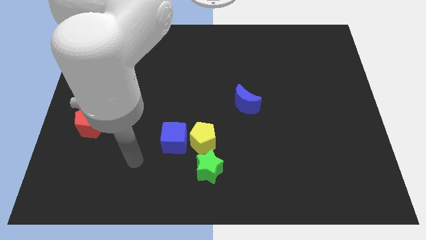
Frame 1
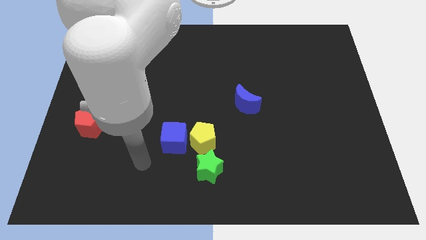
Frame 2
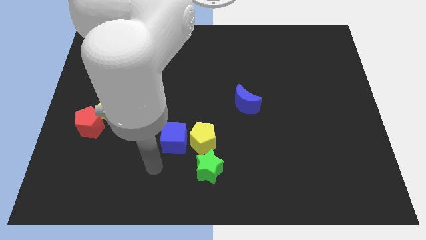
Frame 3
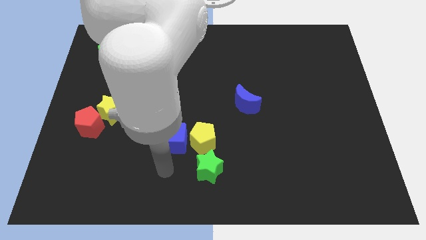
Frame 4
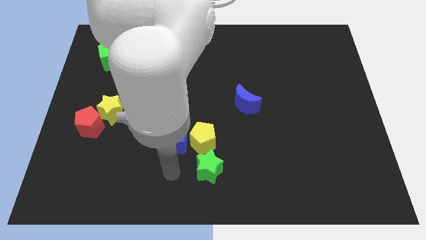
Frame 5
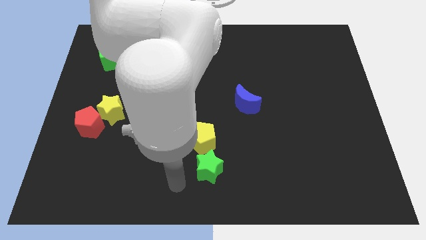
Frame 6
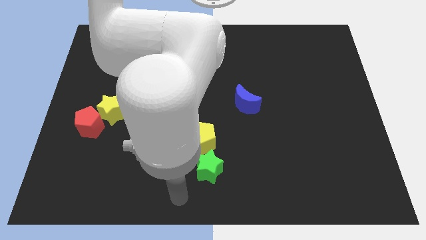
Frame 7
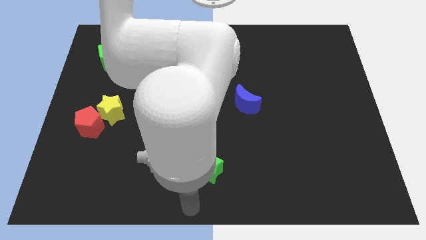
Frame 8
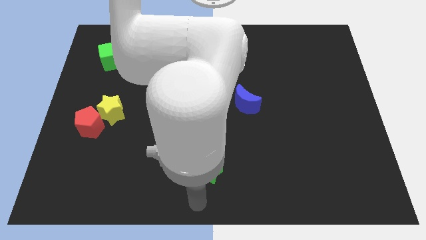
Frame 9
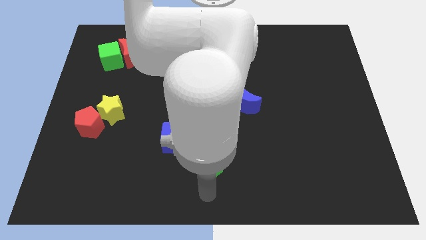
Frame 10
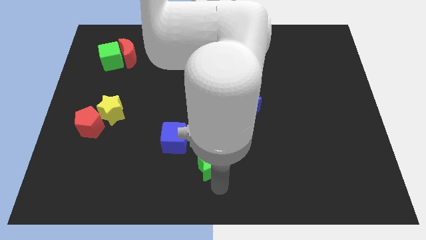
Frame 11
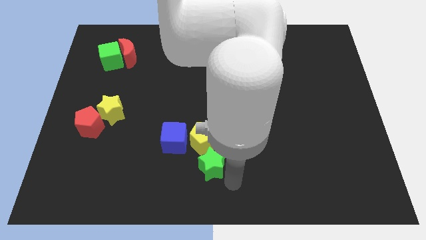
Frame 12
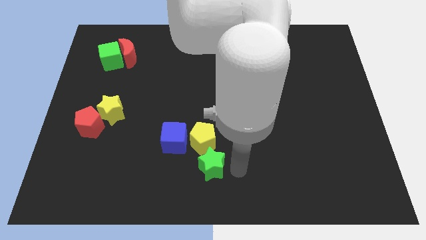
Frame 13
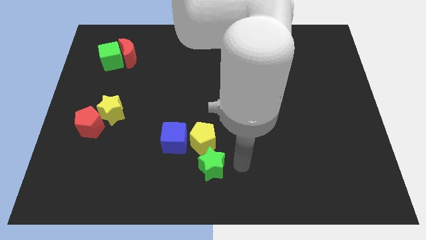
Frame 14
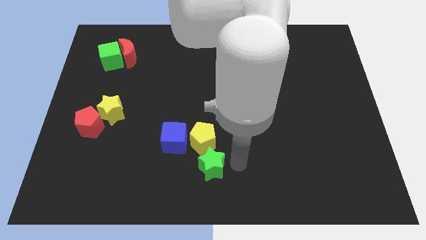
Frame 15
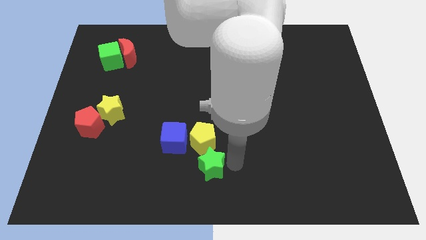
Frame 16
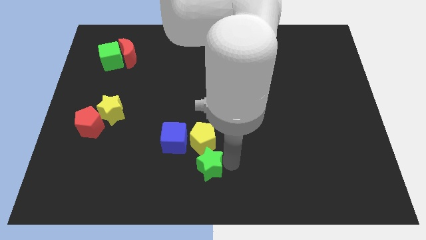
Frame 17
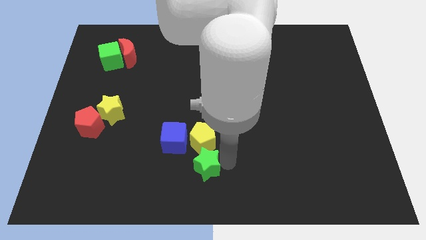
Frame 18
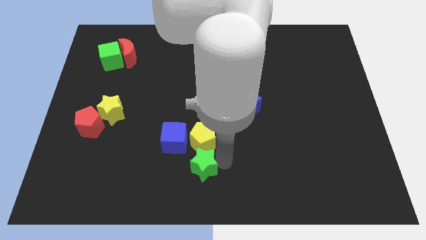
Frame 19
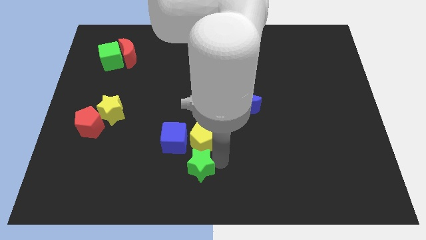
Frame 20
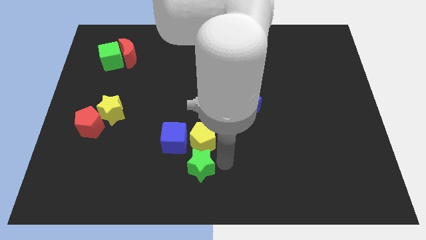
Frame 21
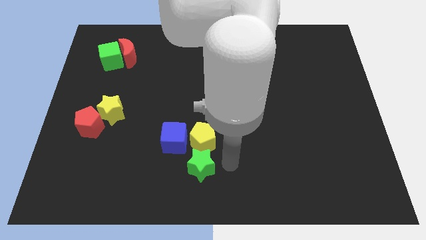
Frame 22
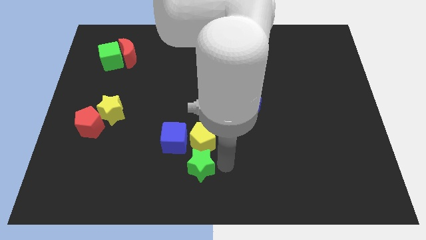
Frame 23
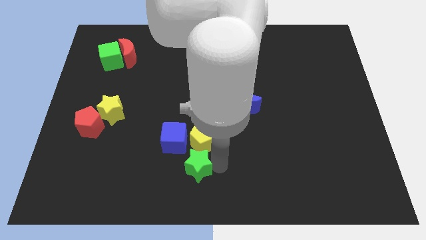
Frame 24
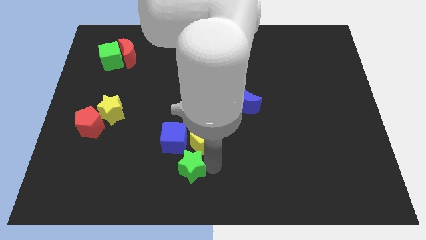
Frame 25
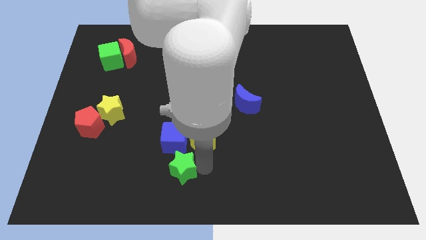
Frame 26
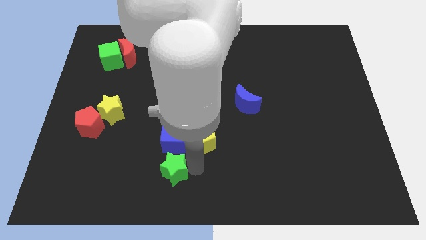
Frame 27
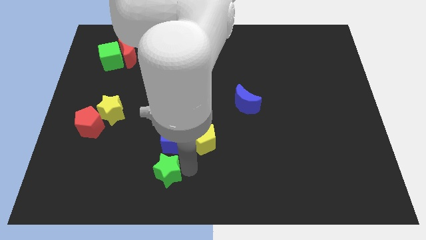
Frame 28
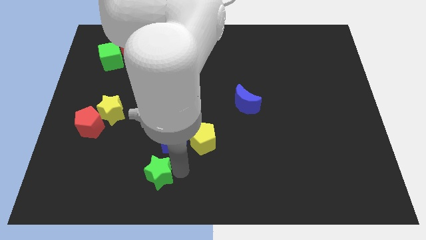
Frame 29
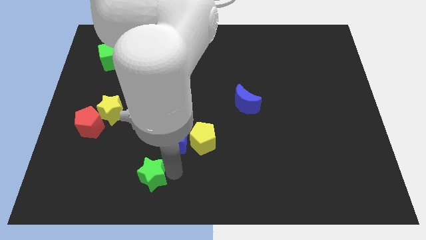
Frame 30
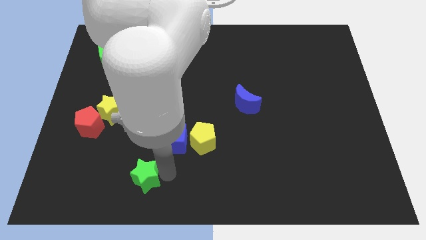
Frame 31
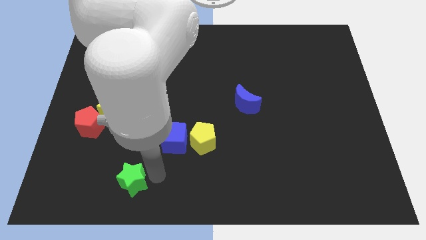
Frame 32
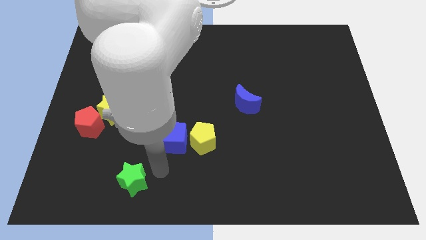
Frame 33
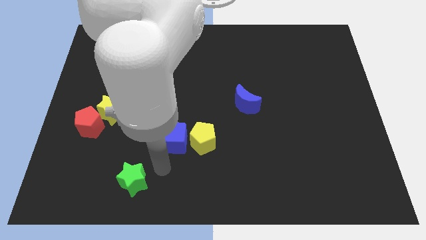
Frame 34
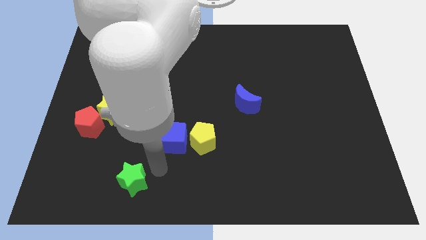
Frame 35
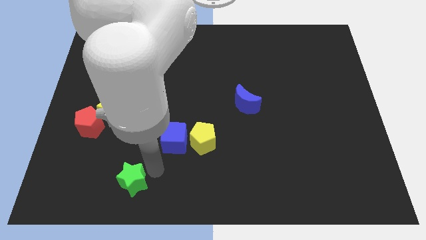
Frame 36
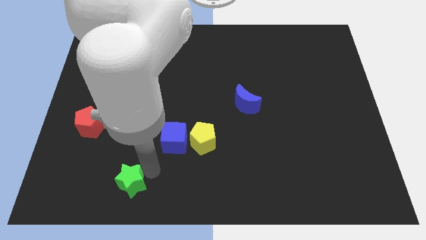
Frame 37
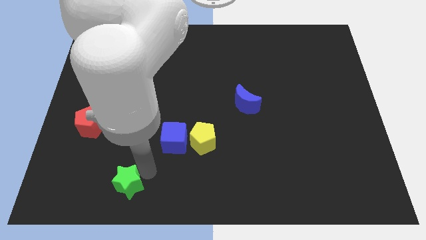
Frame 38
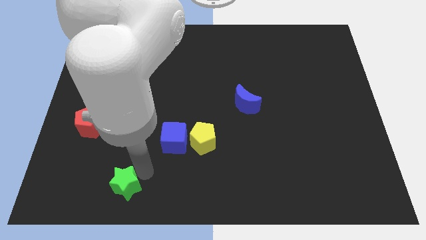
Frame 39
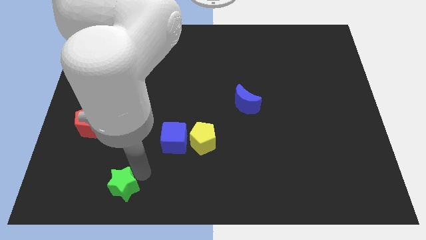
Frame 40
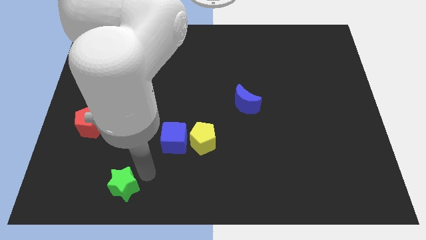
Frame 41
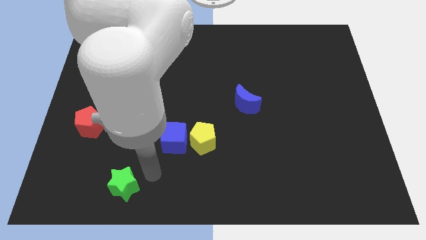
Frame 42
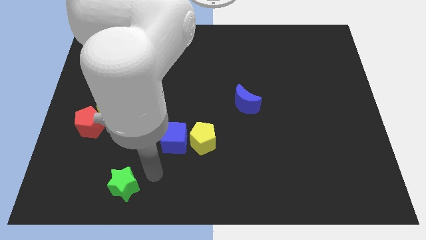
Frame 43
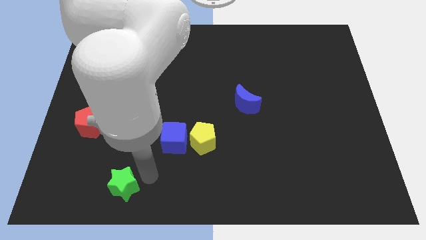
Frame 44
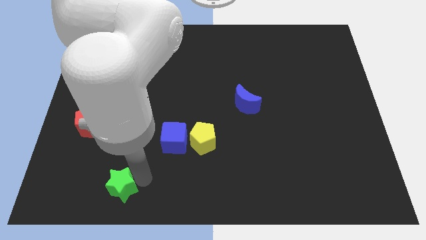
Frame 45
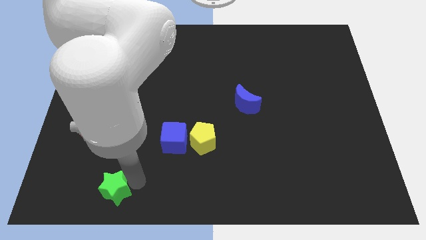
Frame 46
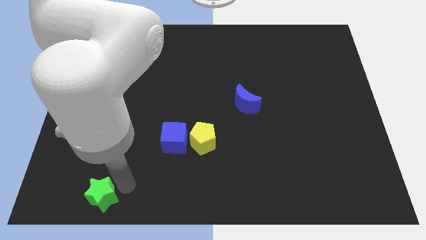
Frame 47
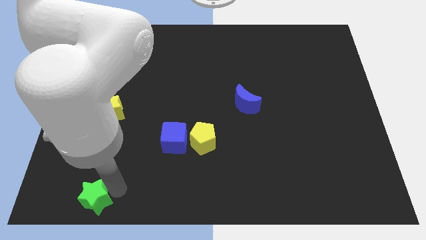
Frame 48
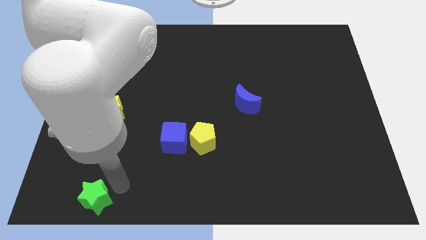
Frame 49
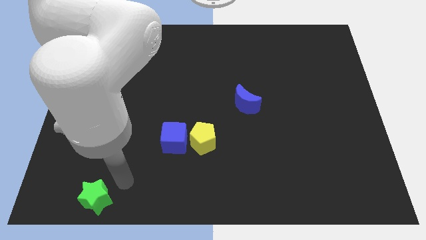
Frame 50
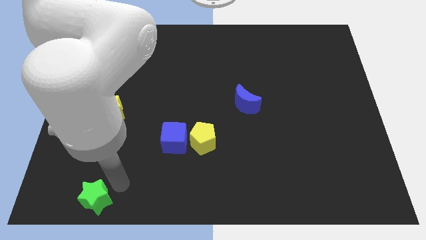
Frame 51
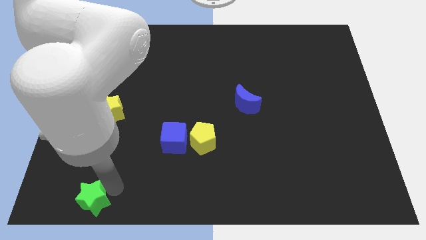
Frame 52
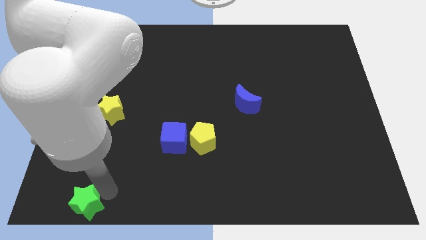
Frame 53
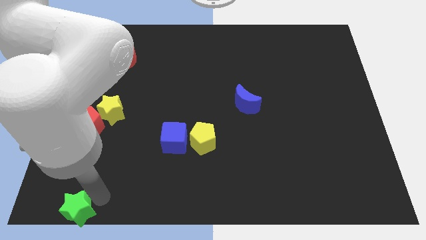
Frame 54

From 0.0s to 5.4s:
push the green star to the bottom left
